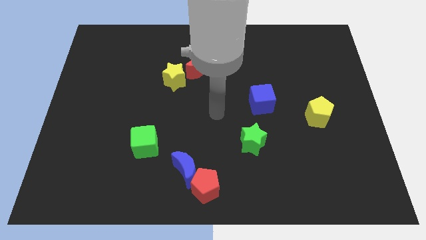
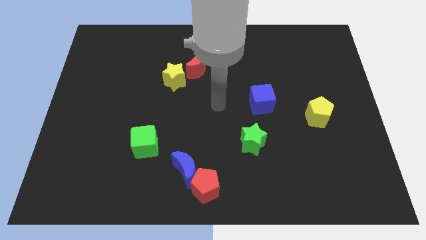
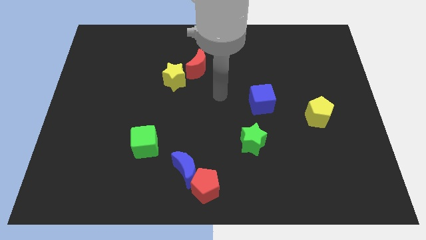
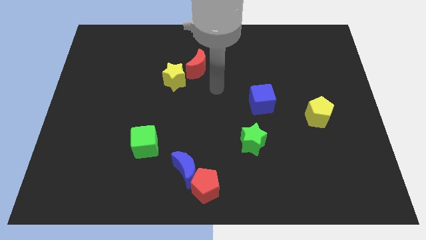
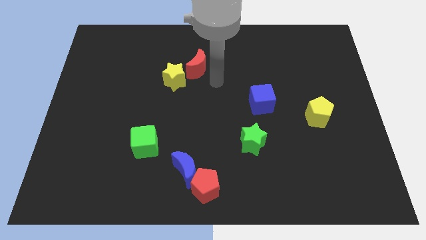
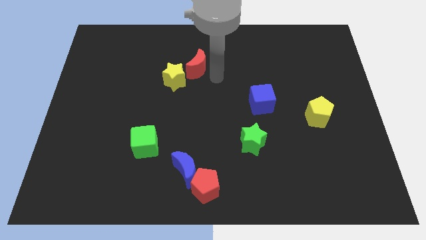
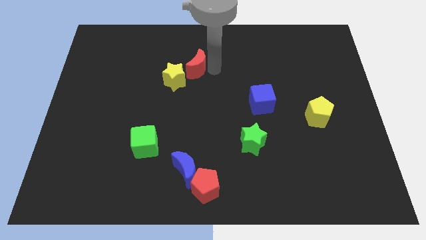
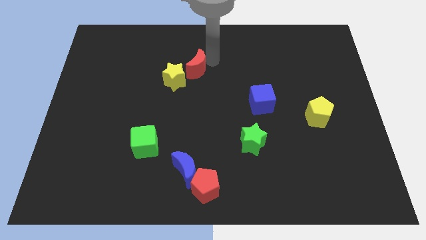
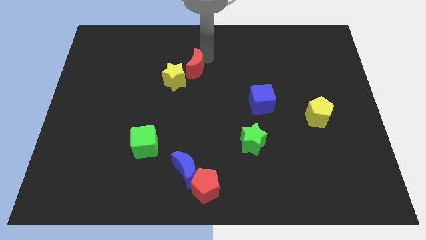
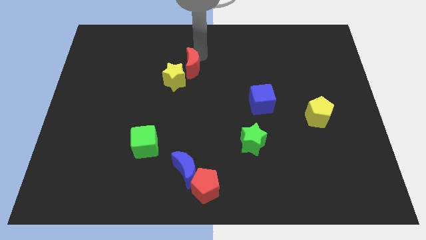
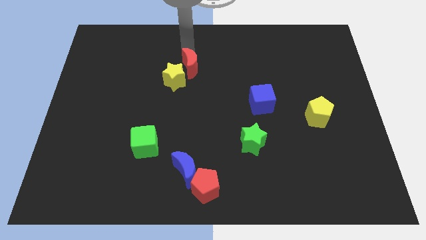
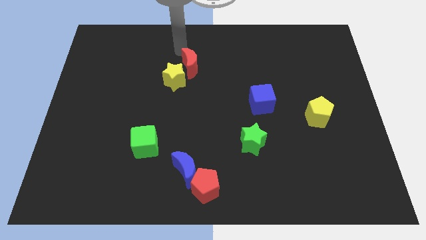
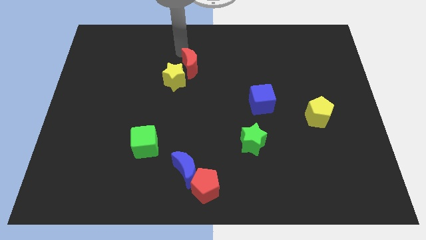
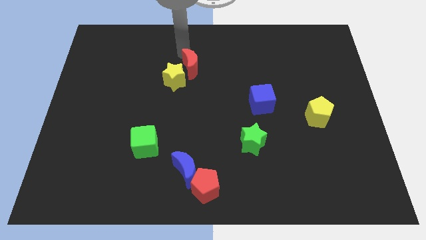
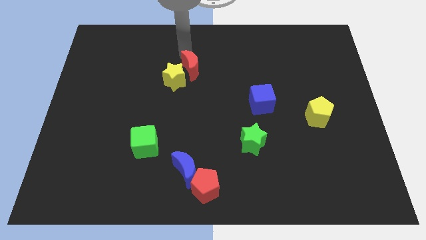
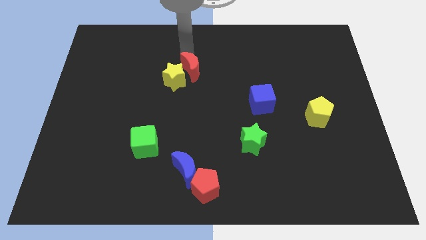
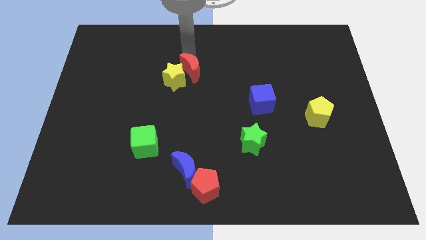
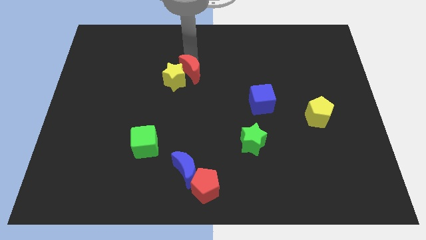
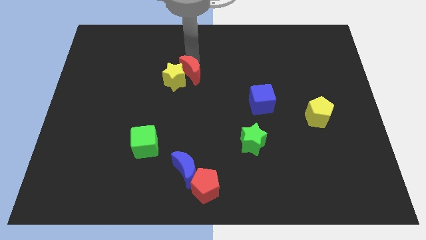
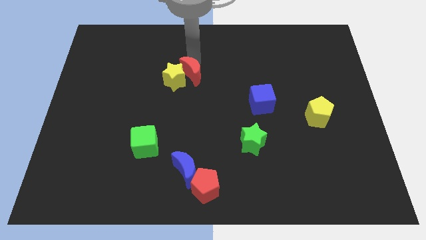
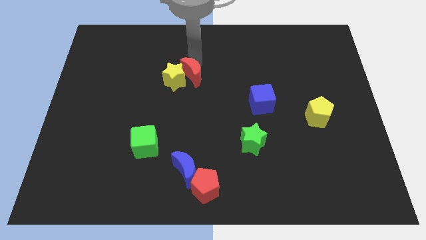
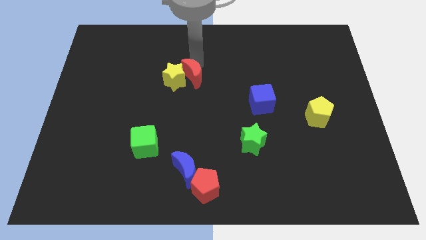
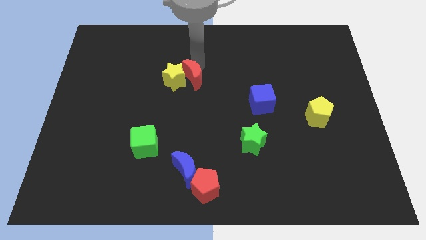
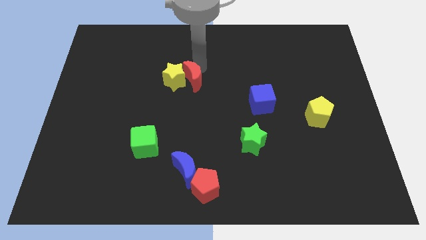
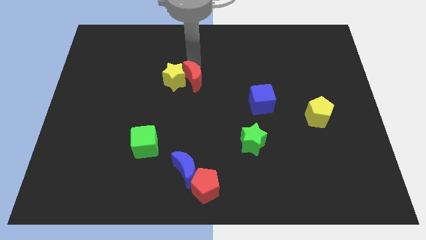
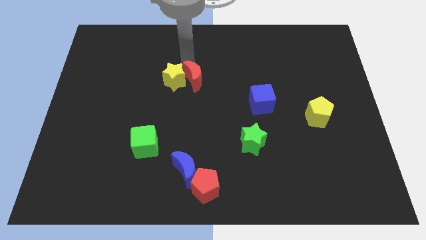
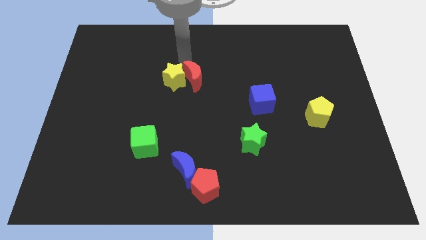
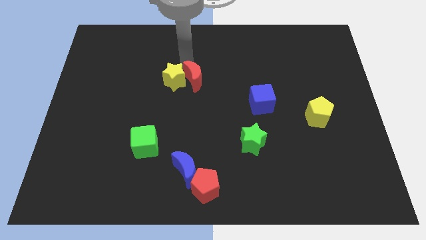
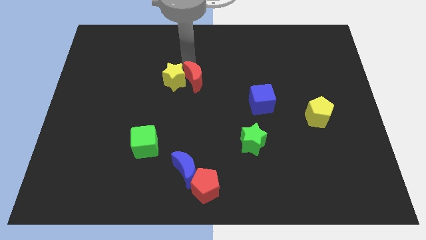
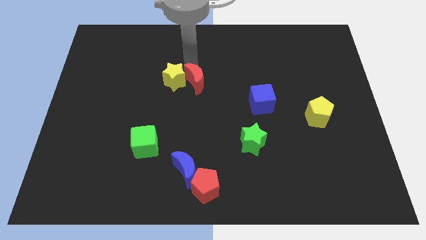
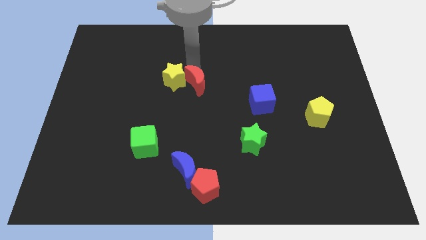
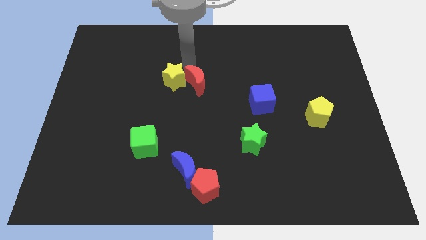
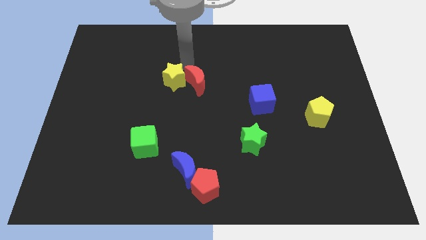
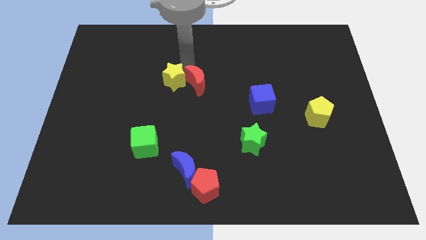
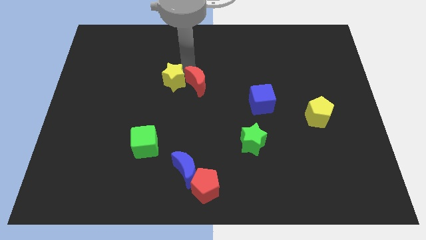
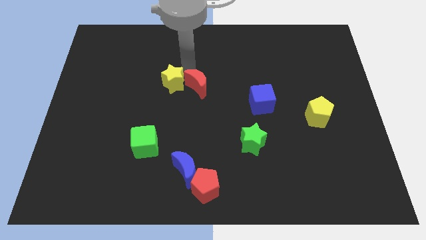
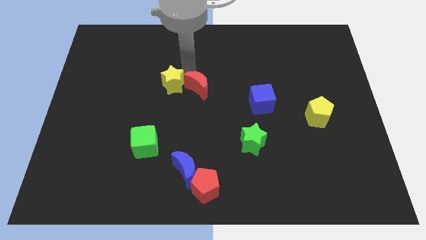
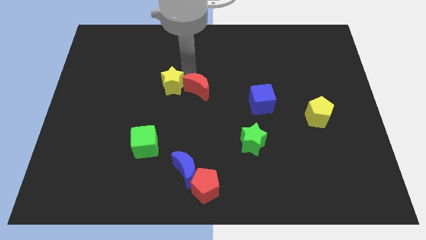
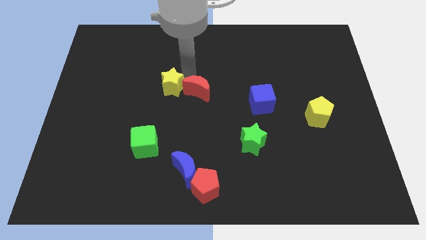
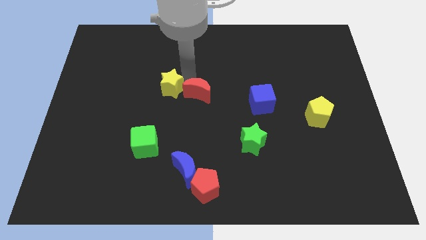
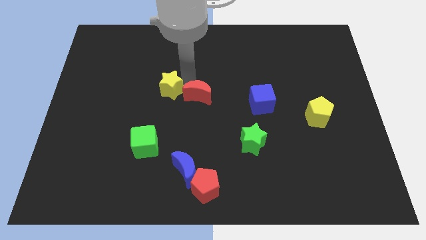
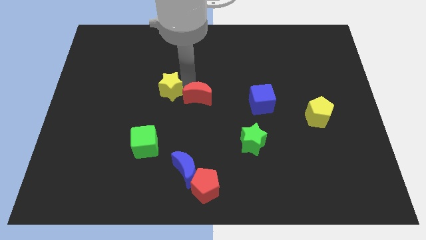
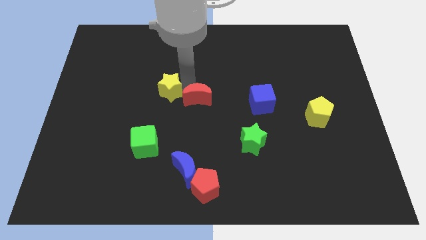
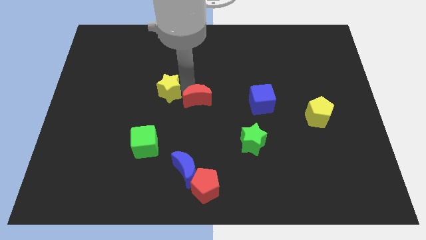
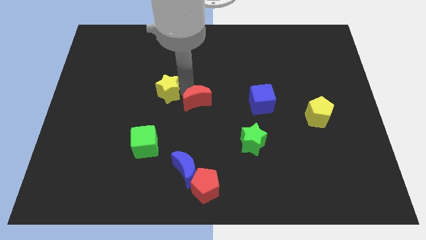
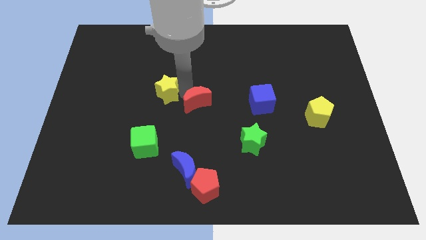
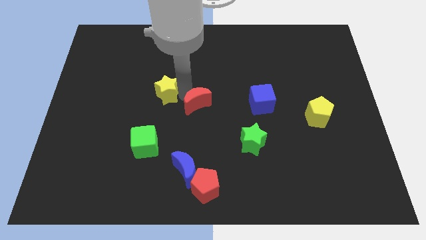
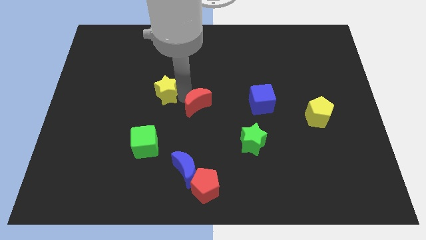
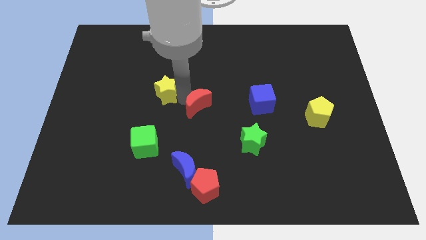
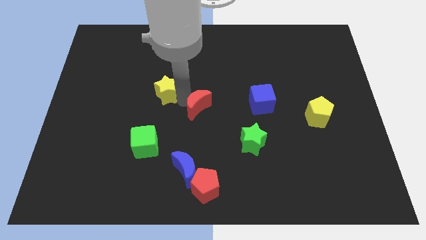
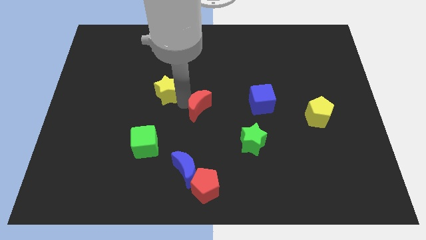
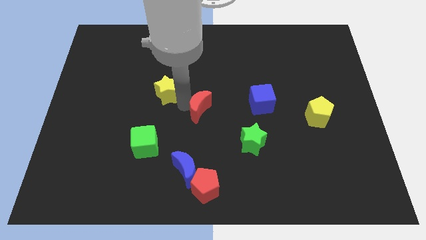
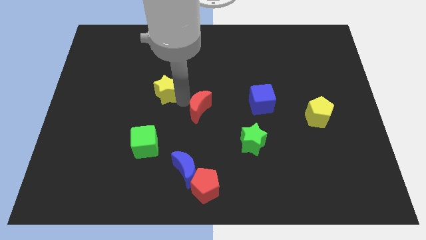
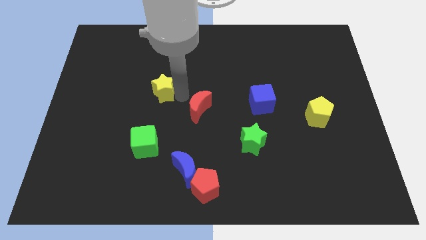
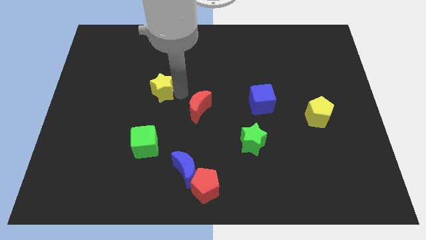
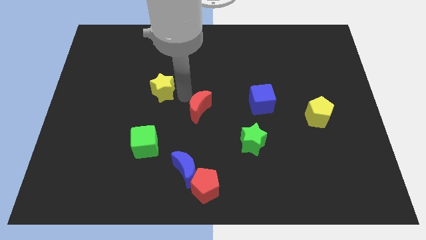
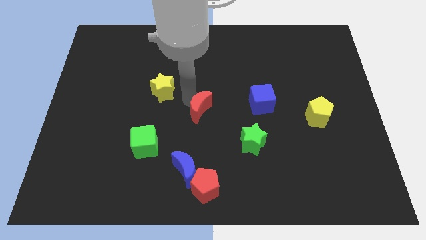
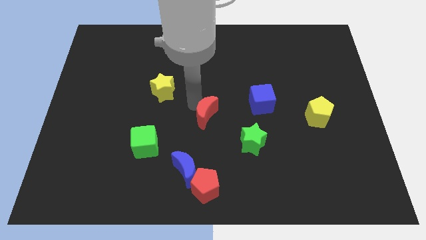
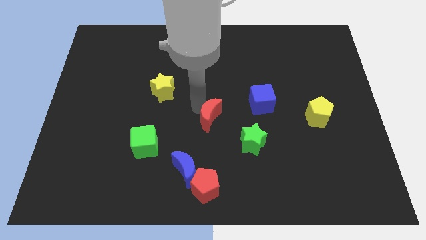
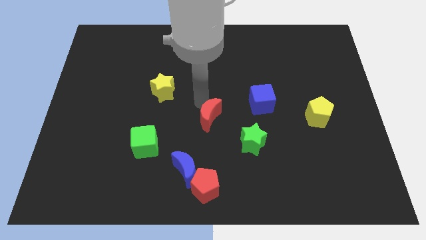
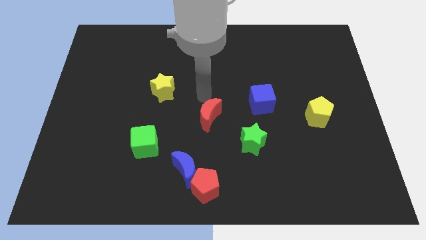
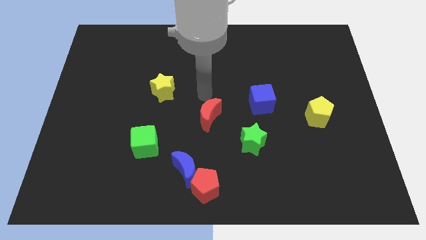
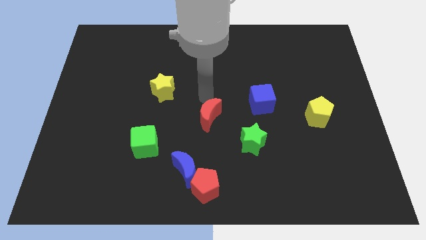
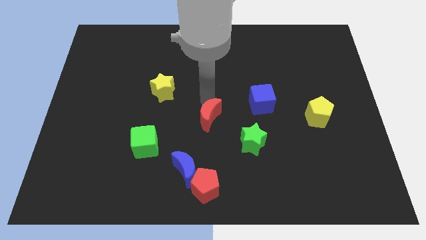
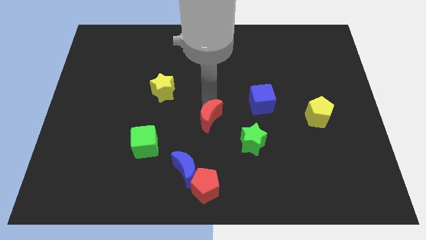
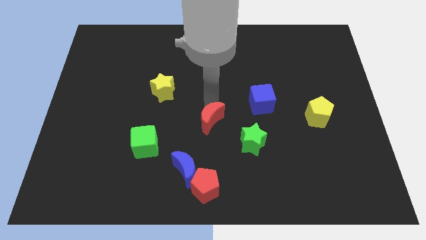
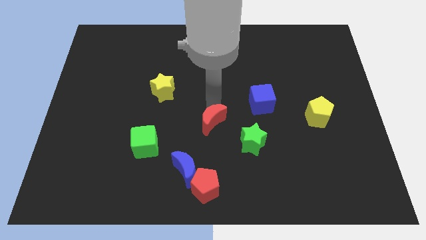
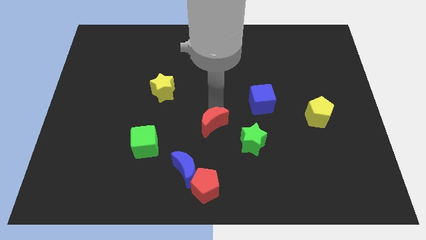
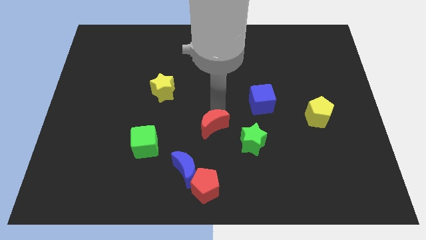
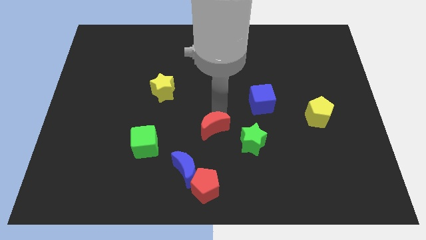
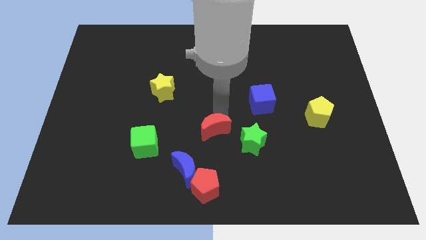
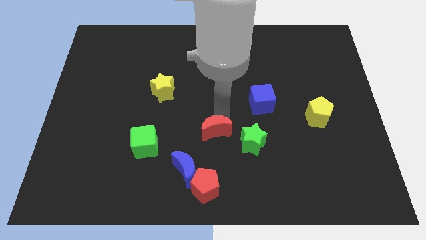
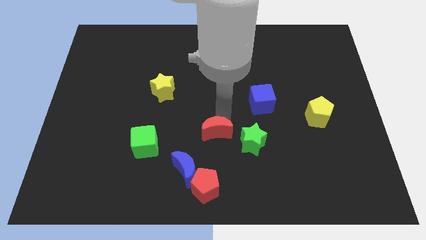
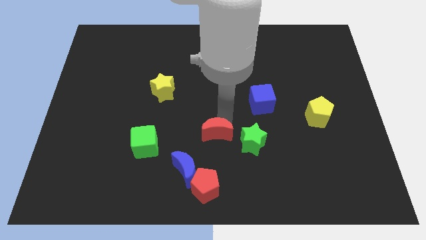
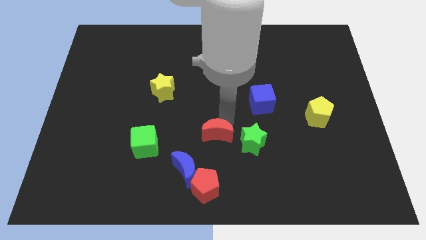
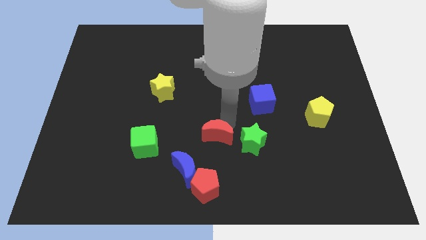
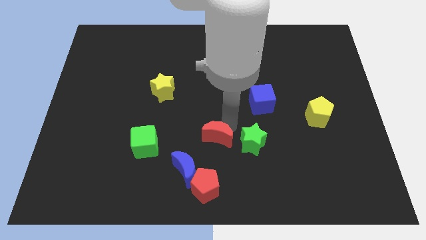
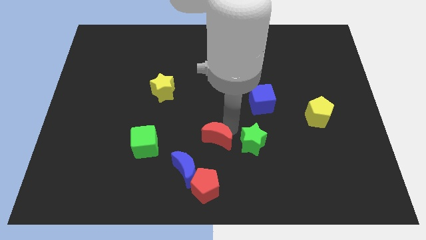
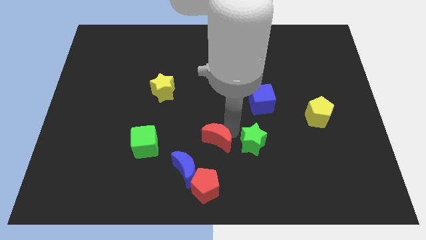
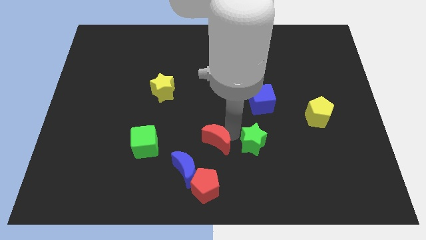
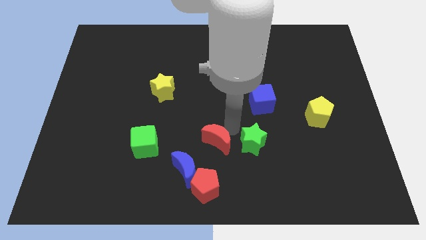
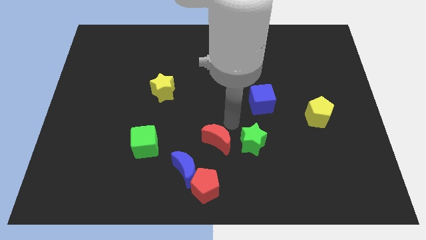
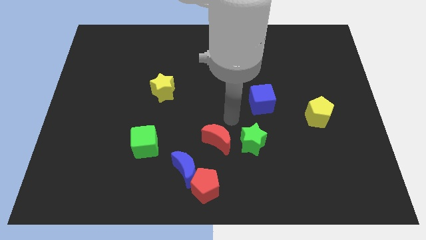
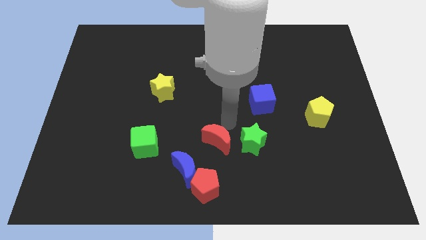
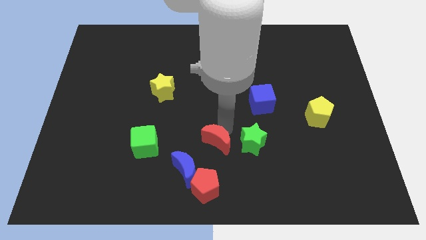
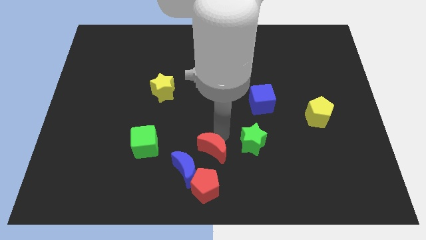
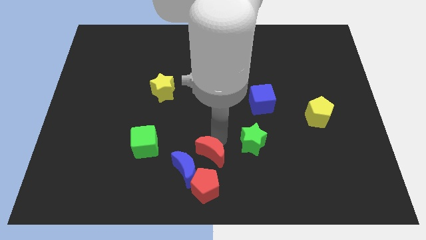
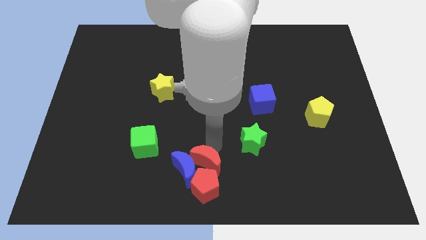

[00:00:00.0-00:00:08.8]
slide the red moon towards the red pentagon
